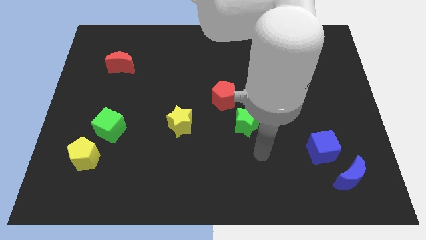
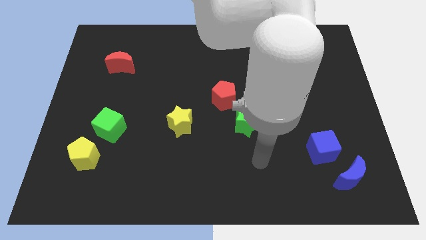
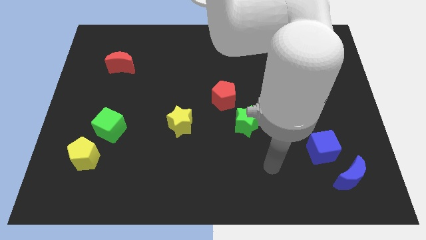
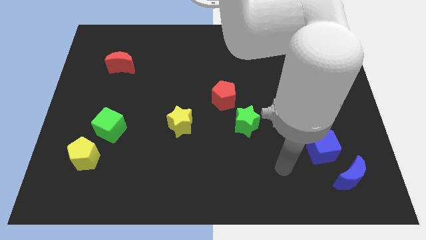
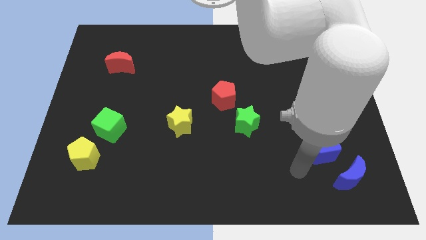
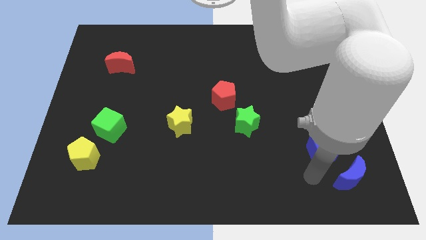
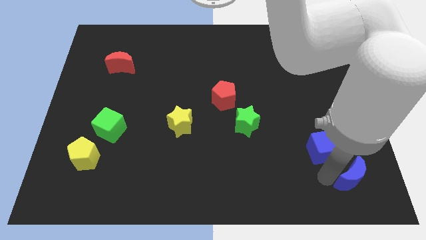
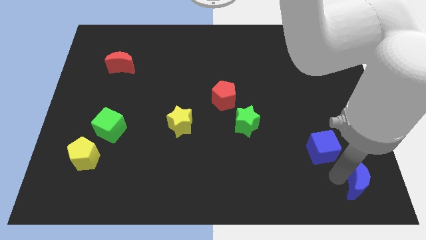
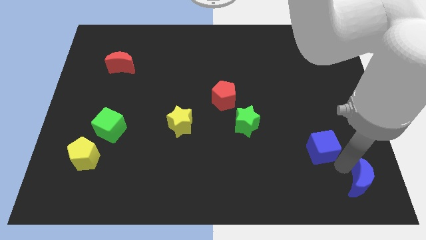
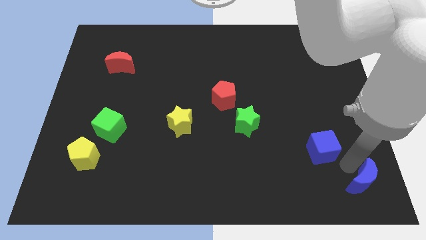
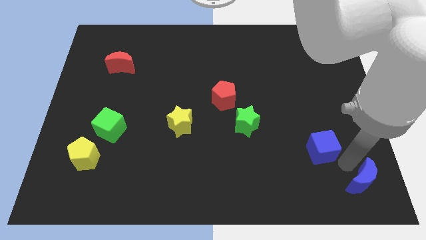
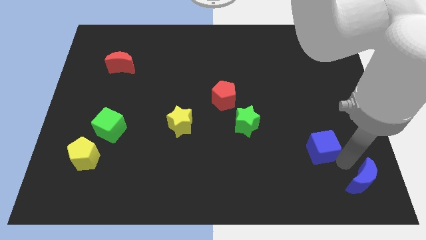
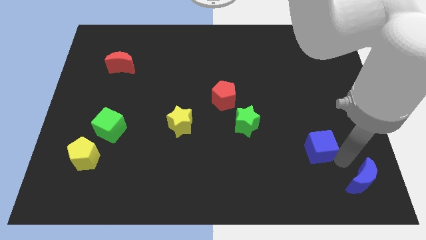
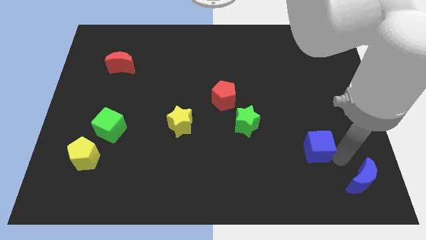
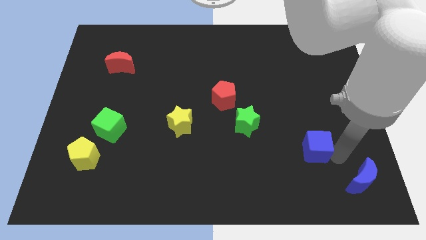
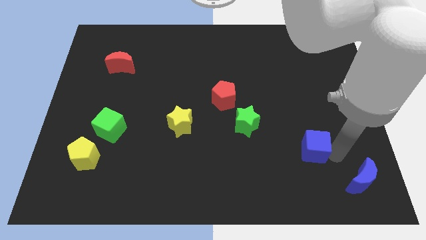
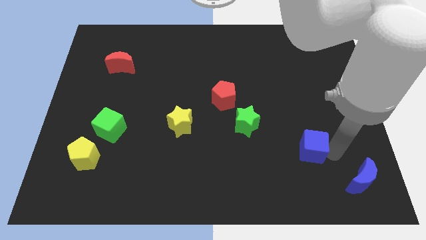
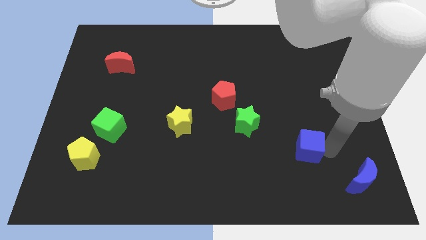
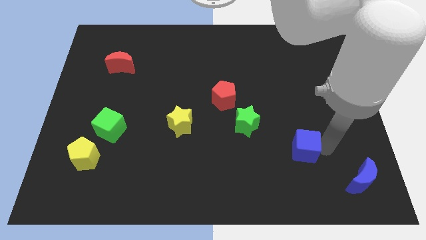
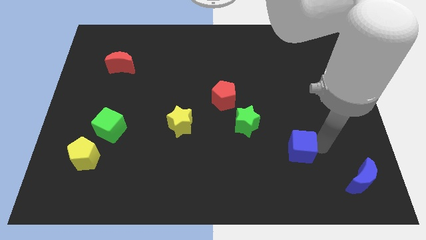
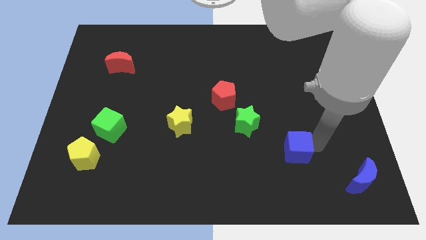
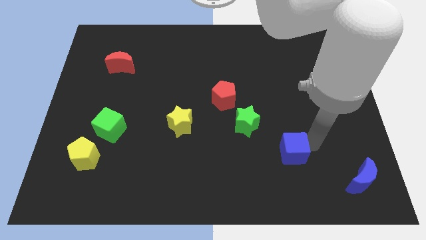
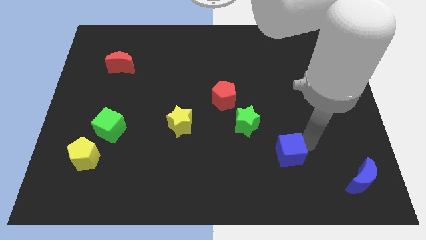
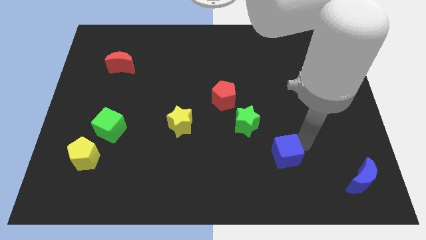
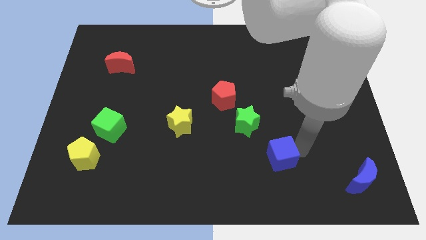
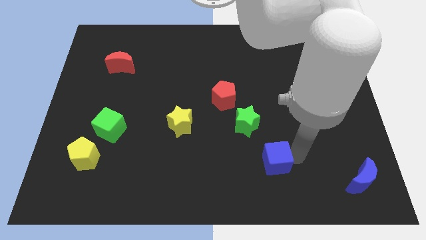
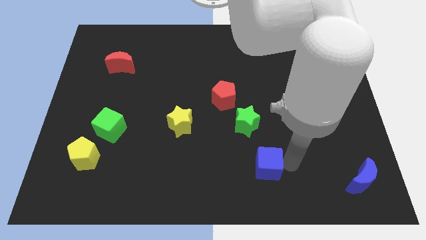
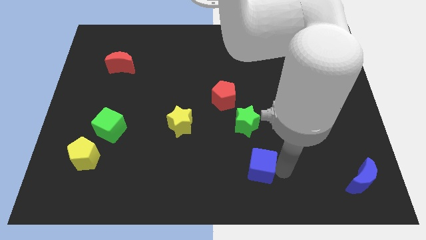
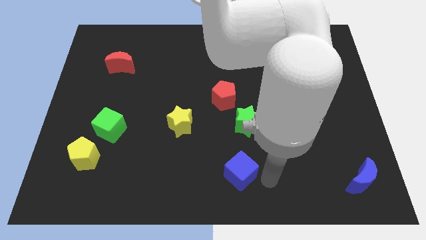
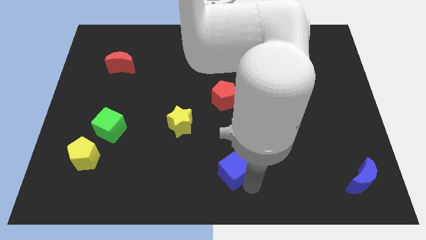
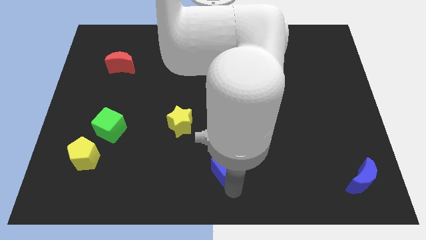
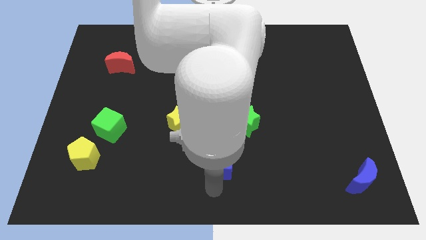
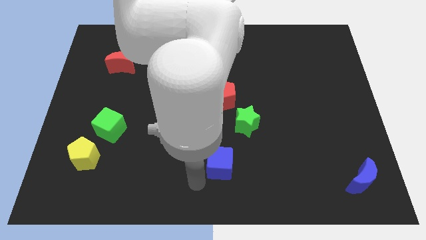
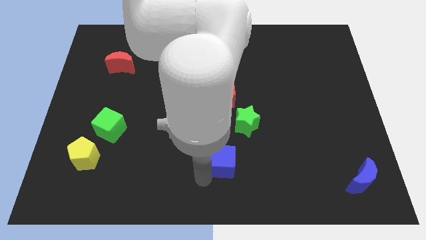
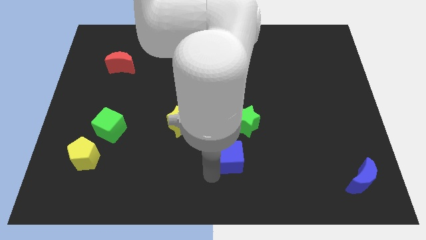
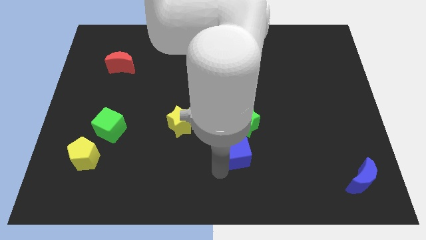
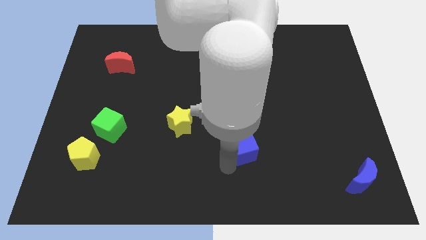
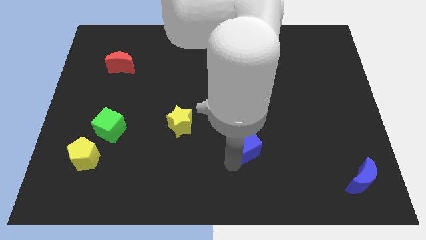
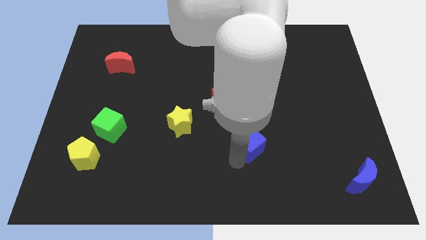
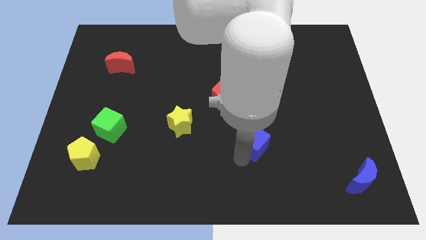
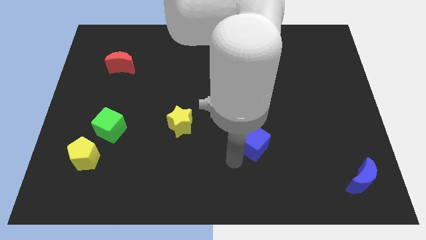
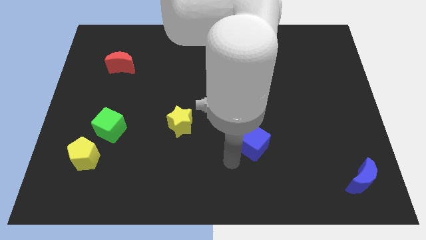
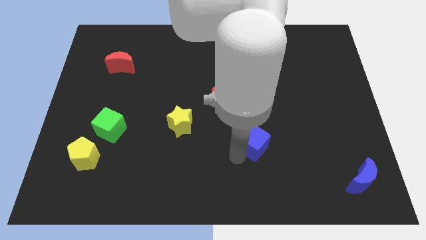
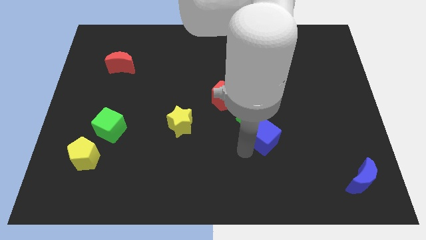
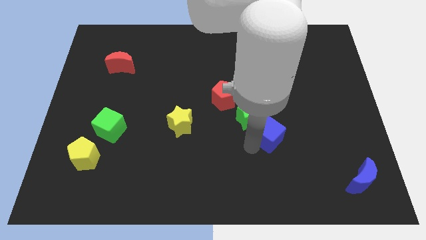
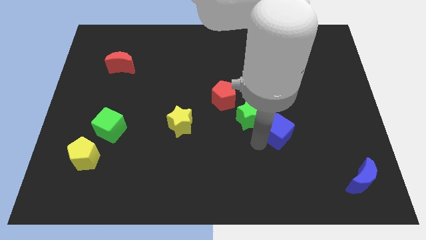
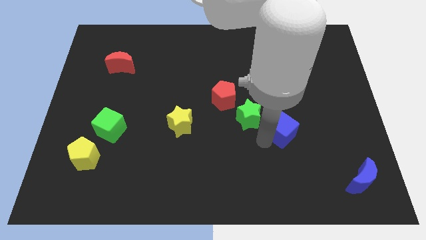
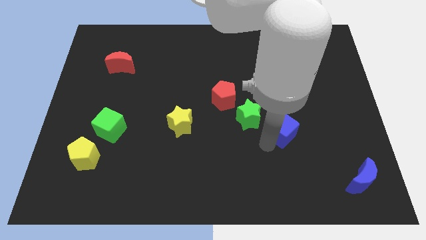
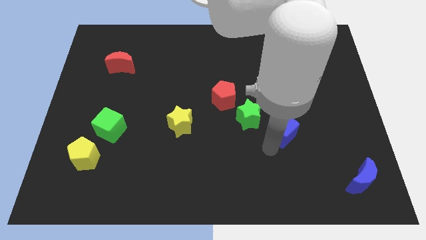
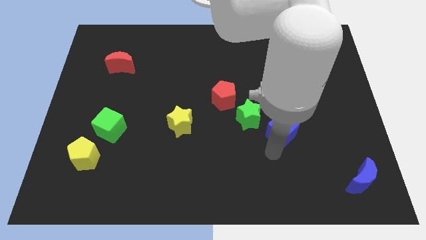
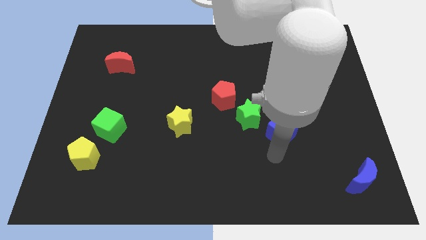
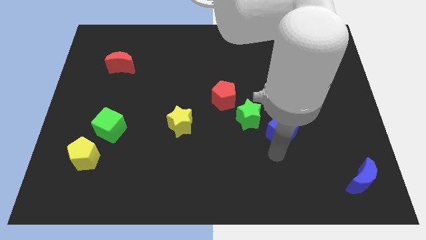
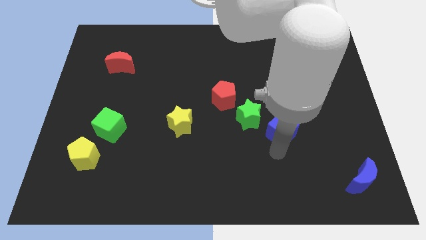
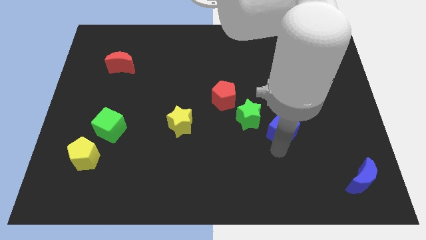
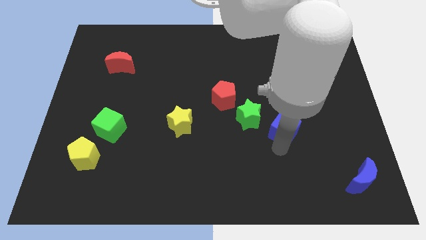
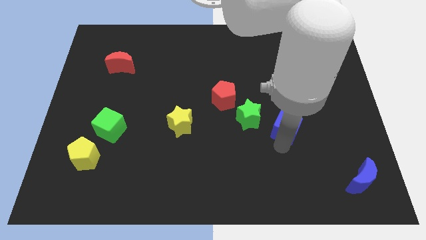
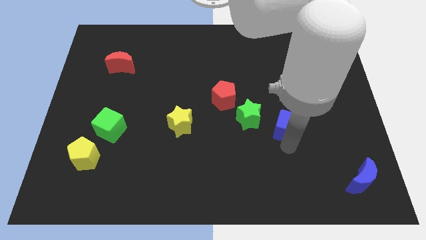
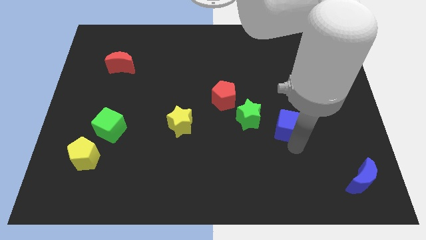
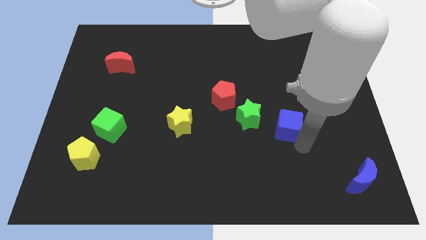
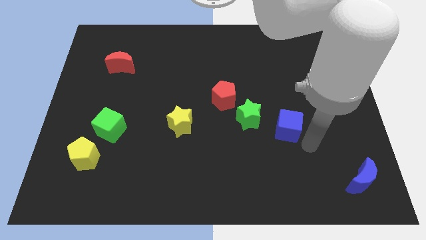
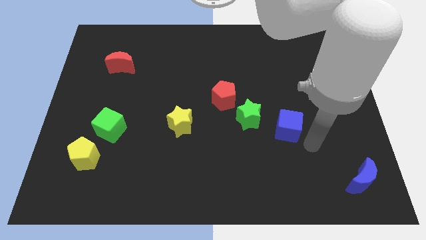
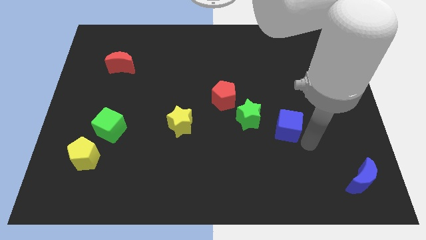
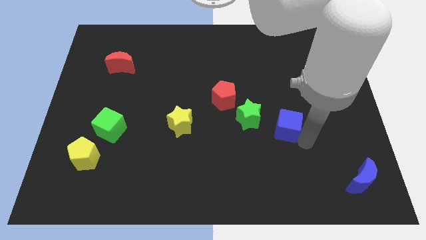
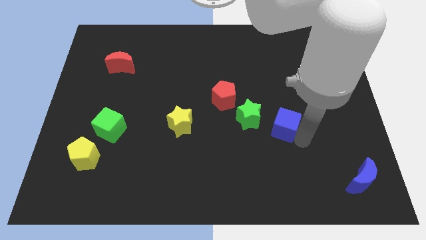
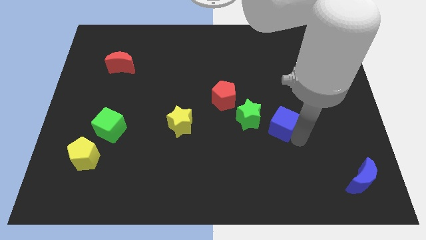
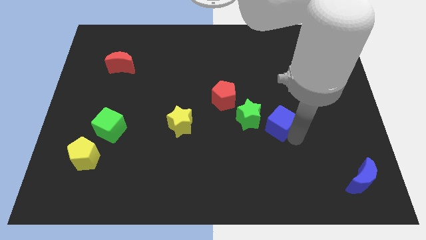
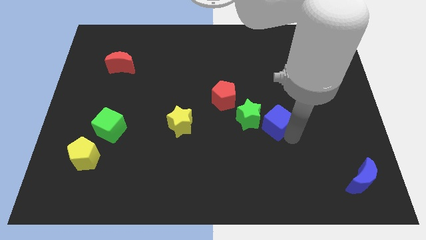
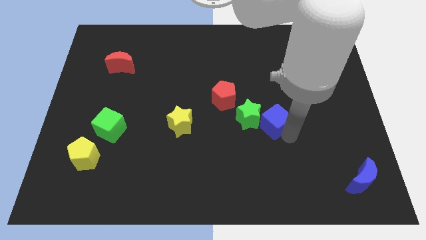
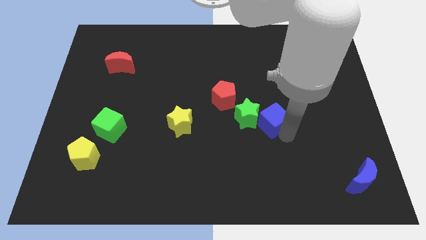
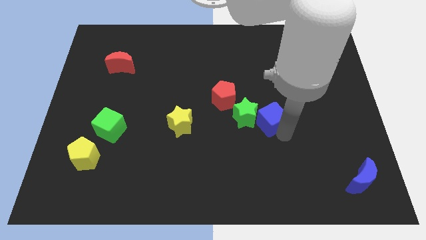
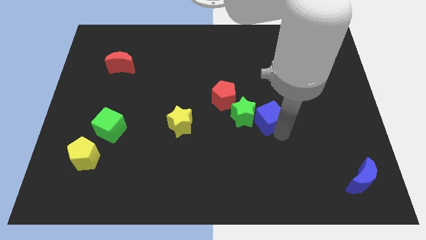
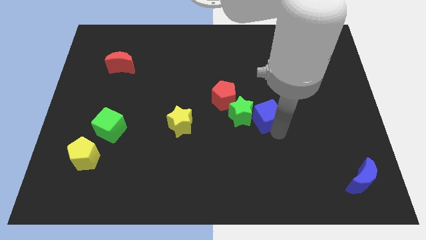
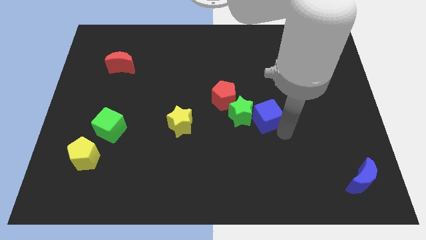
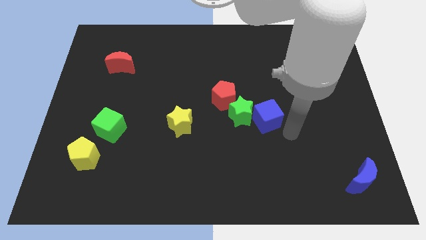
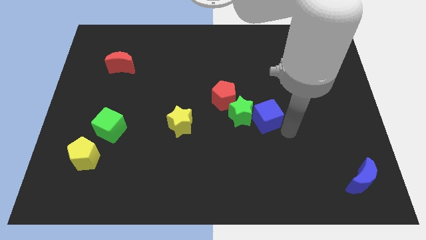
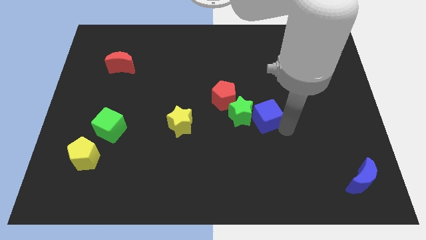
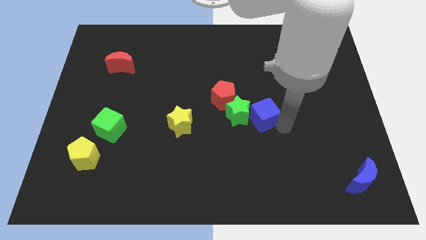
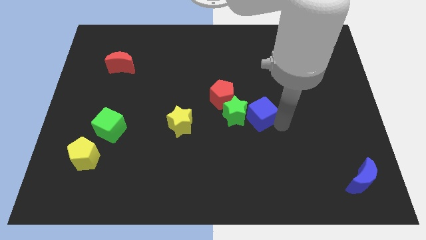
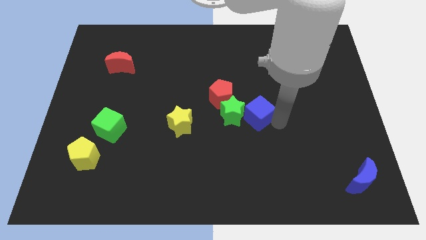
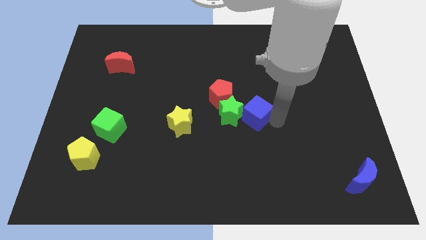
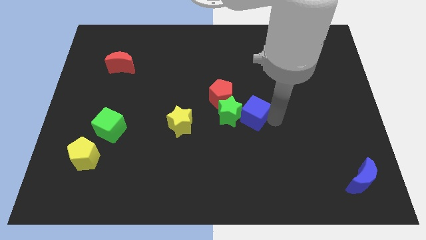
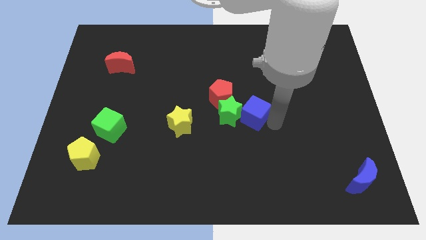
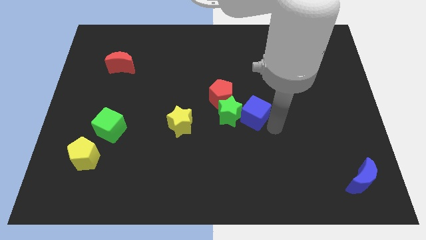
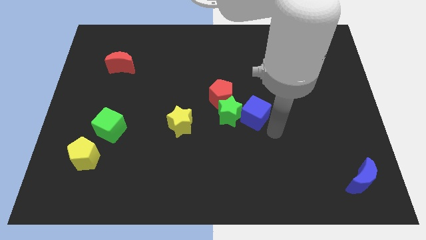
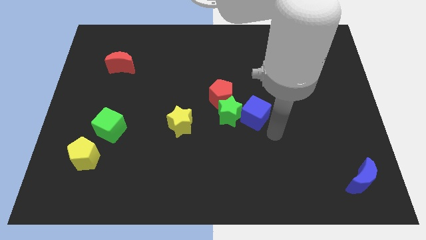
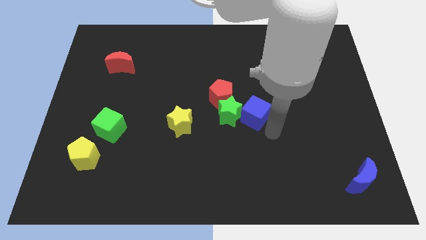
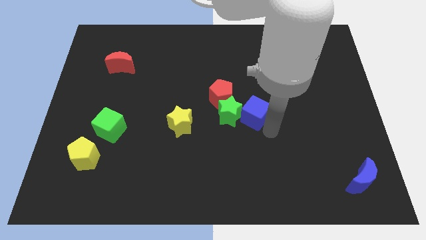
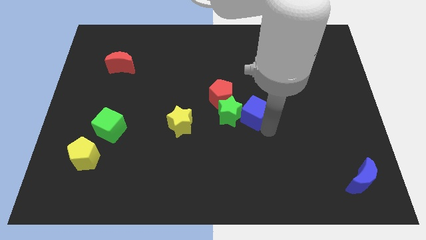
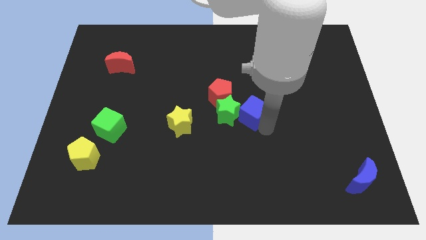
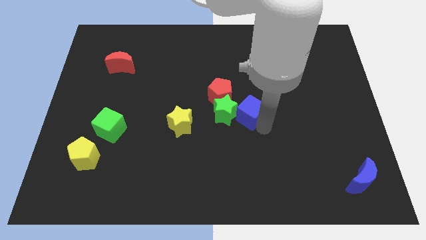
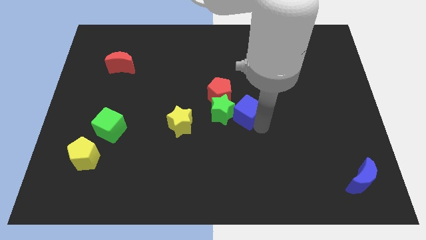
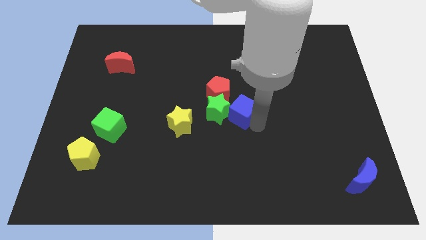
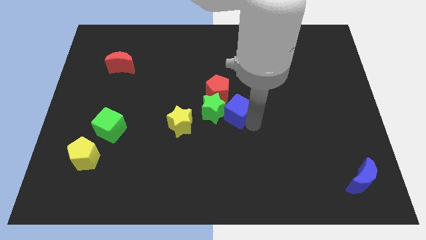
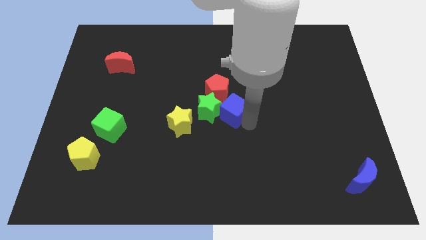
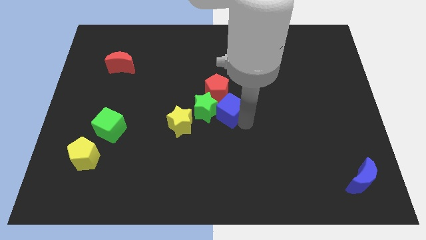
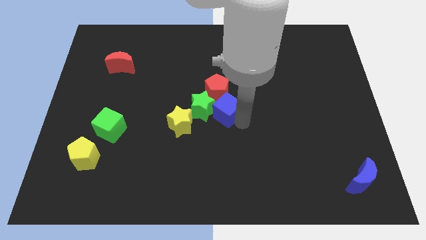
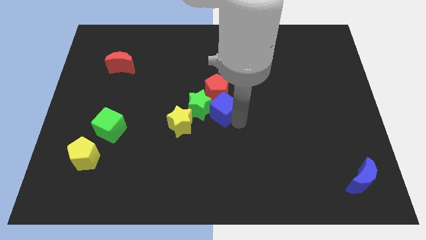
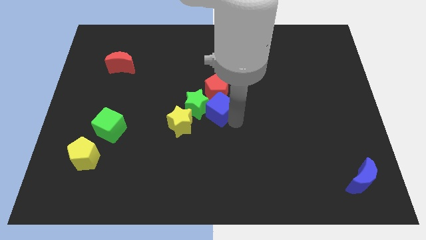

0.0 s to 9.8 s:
put the blue cube to the red pentagon
